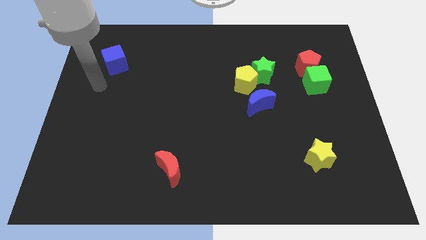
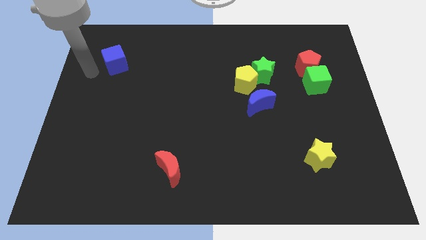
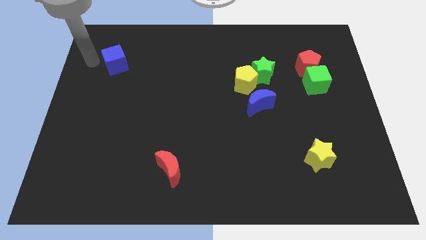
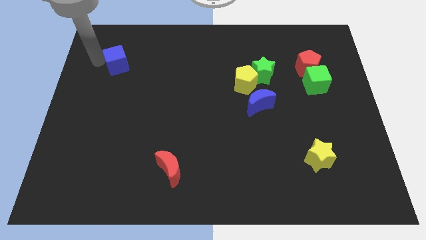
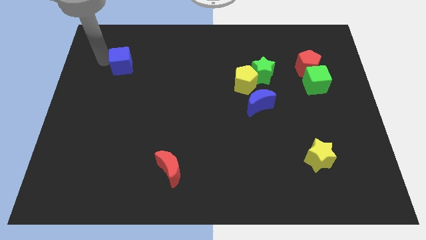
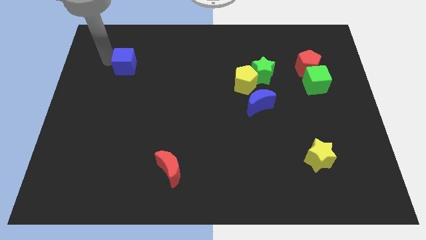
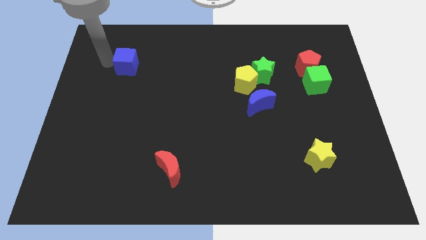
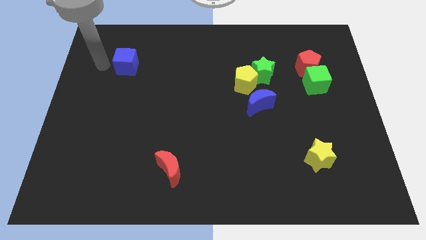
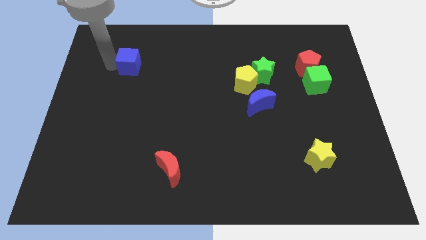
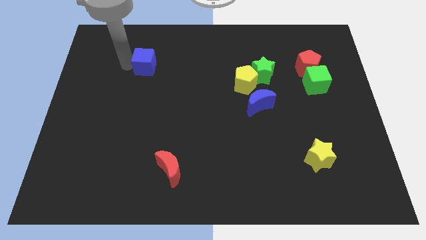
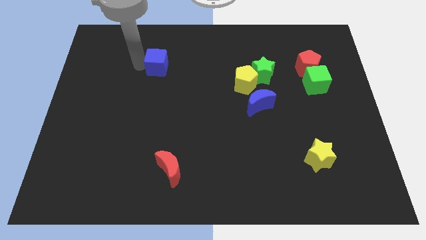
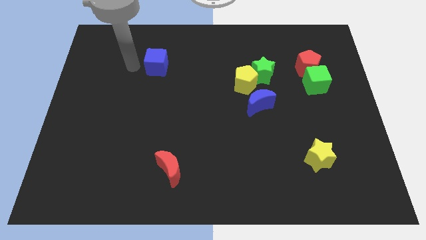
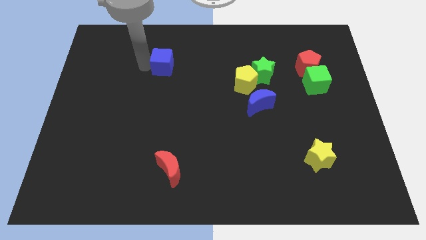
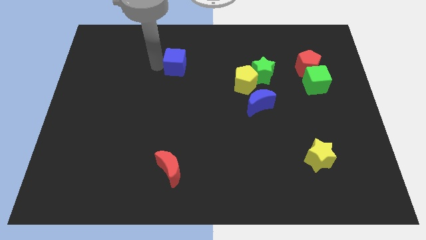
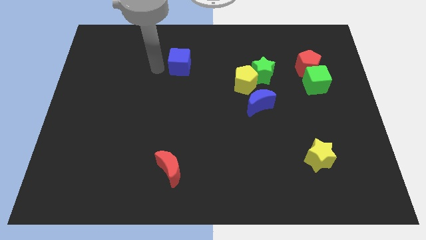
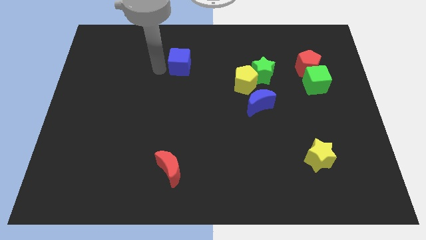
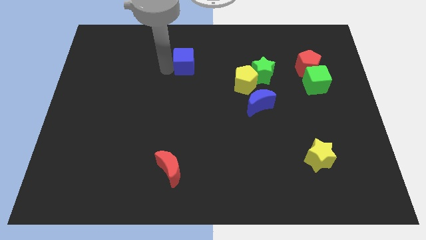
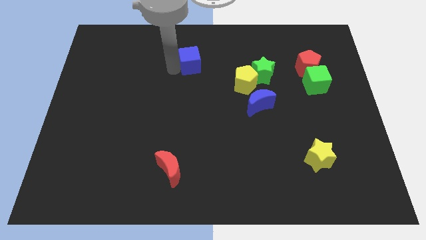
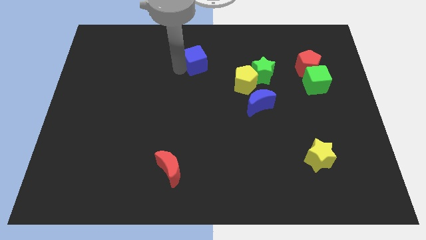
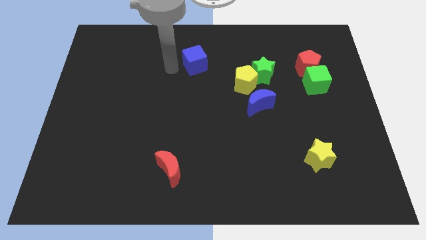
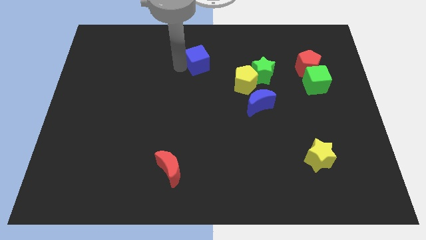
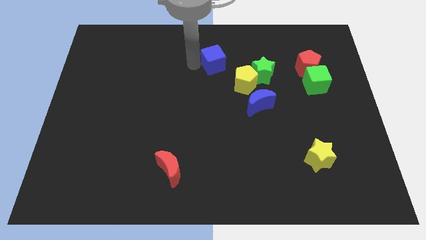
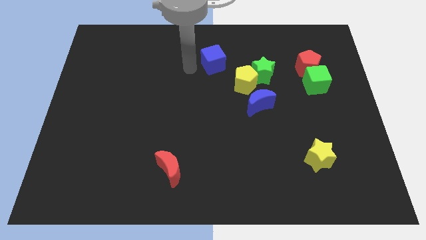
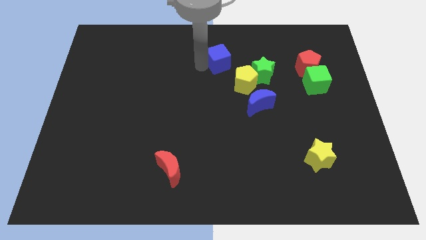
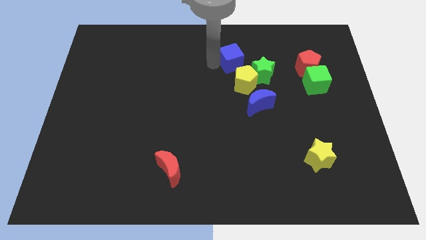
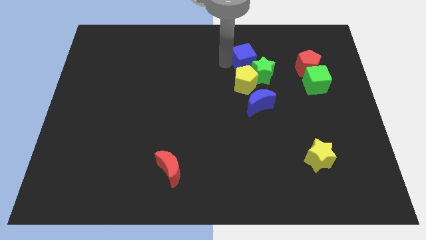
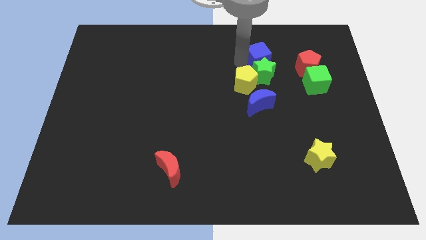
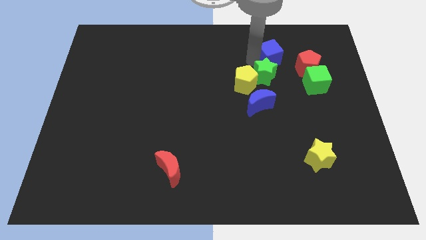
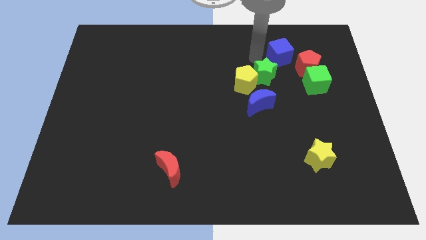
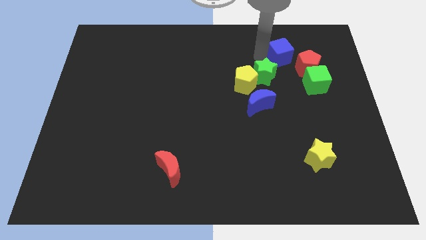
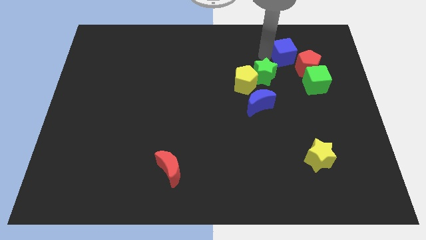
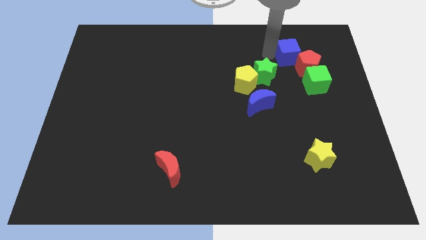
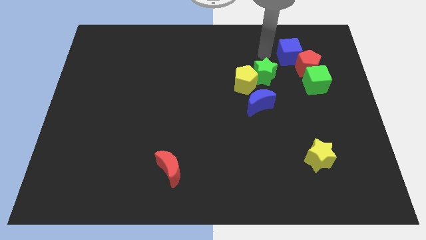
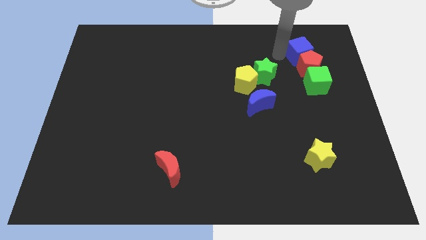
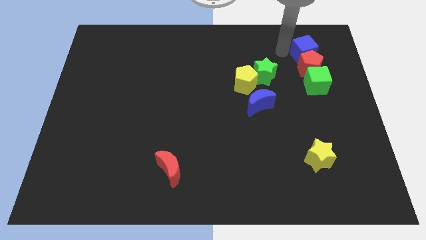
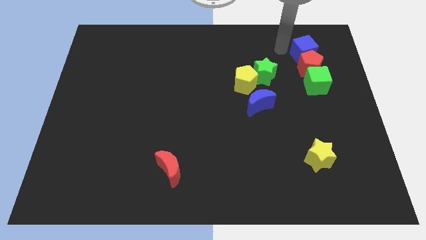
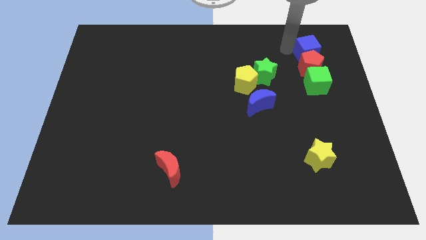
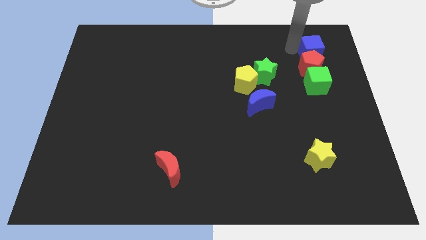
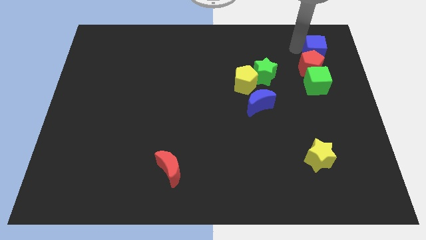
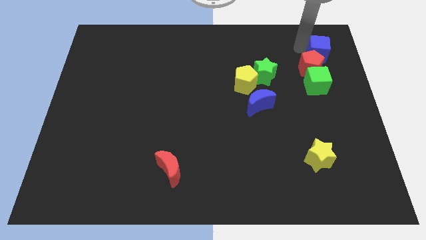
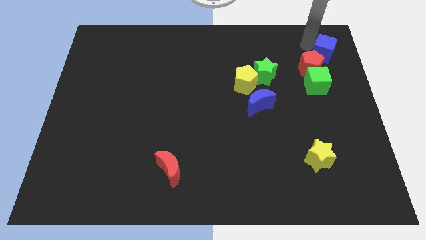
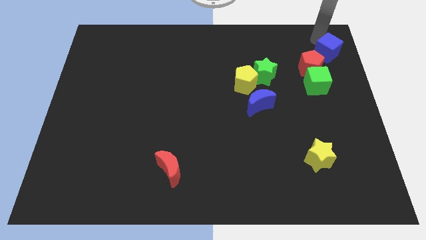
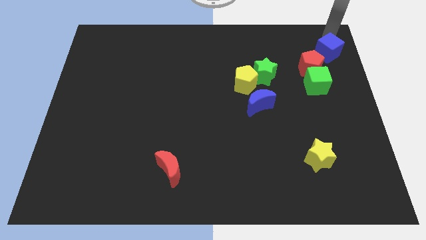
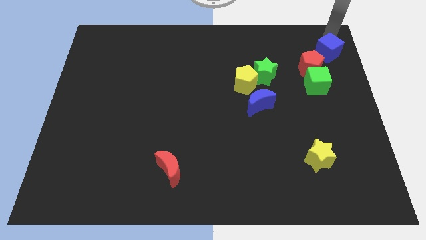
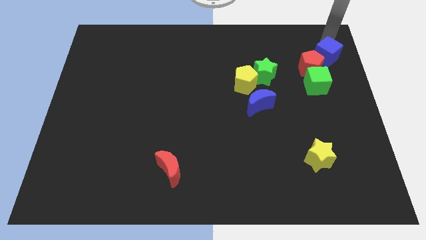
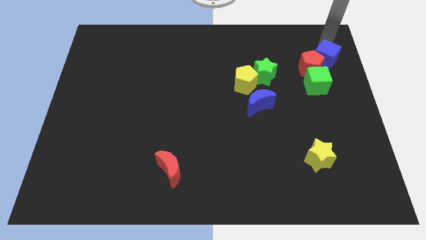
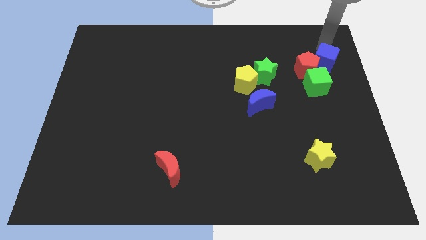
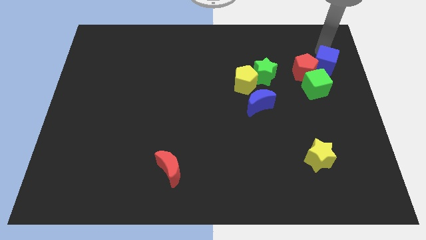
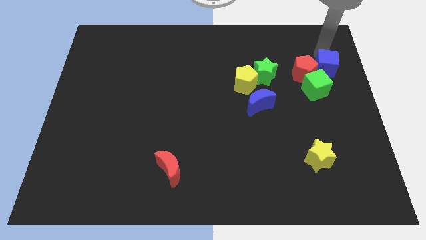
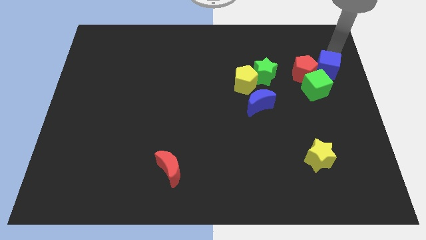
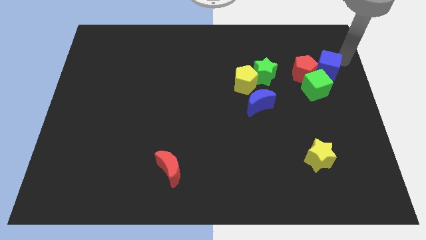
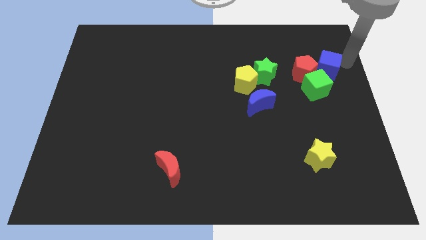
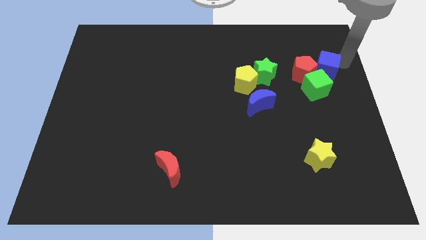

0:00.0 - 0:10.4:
move the blue cube to the right side of the green star

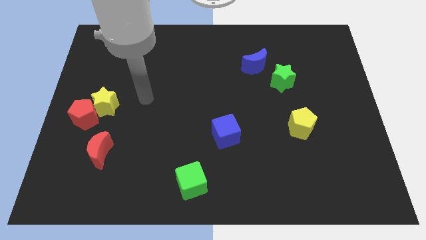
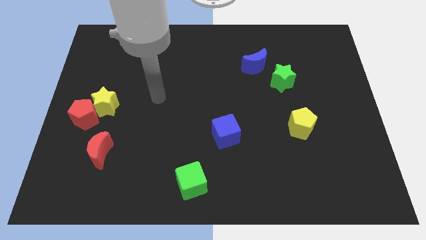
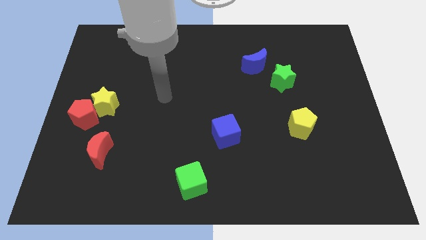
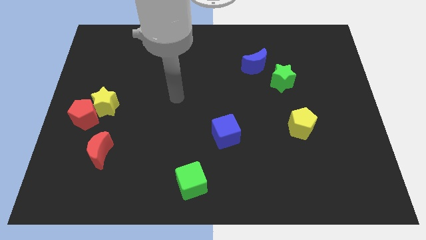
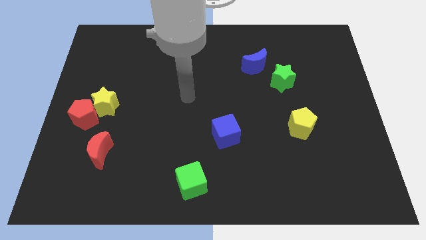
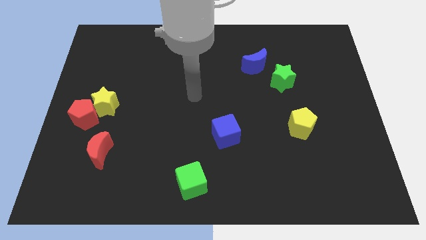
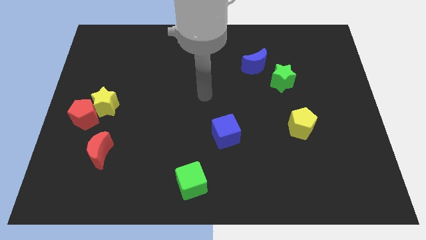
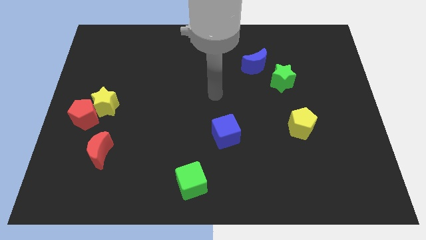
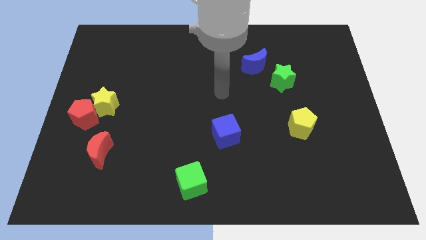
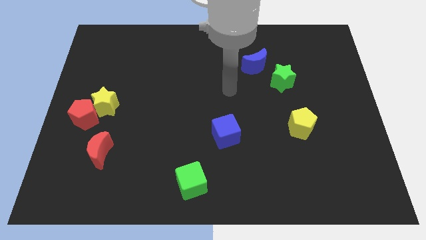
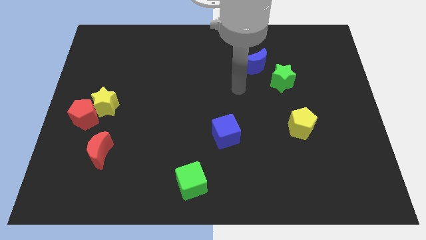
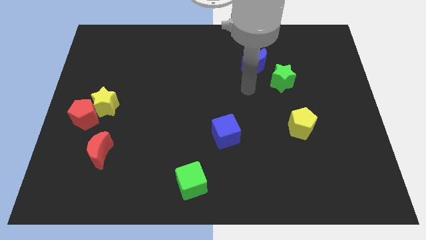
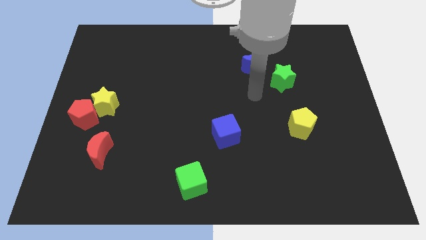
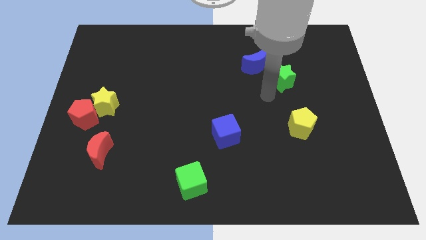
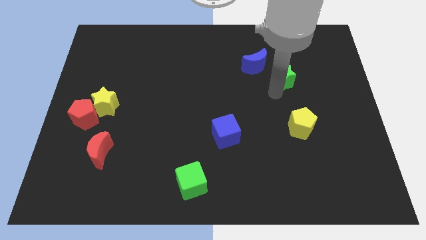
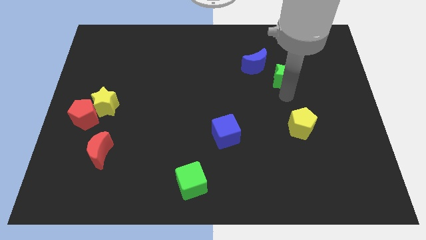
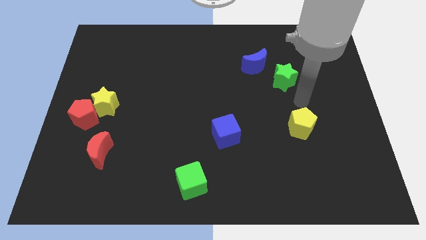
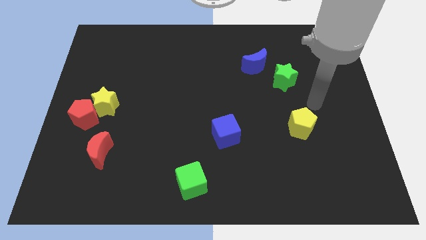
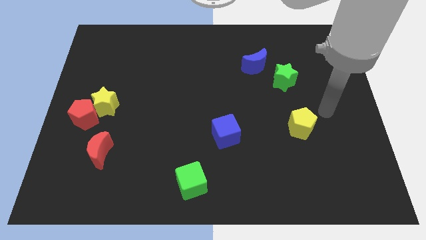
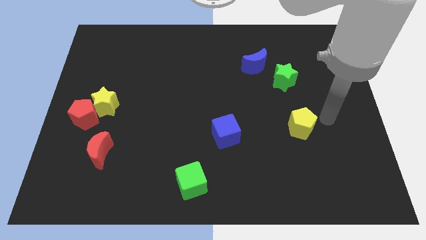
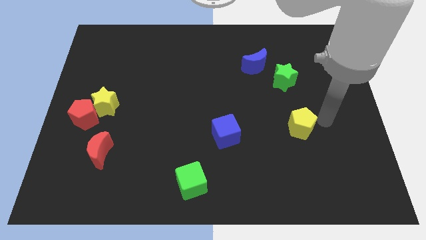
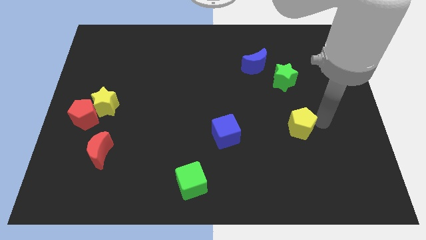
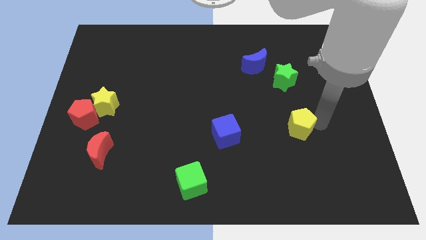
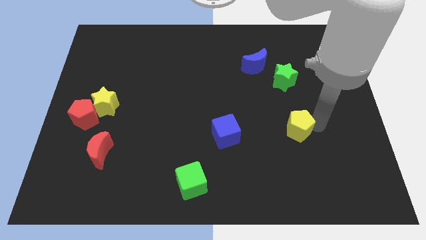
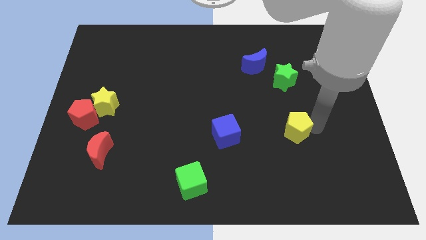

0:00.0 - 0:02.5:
move the yellow pentagon to the right of the blue cube
